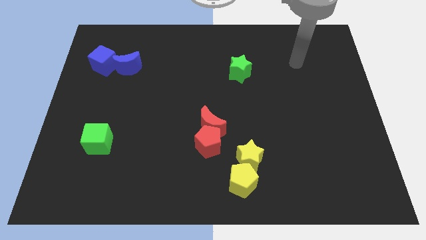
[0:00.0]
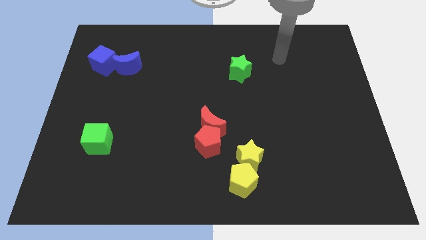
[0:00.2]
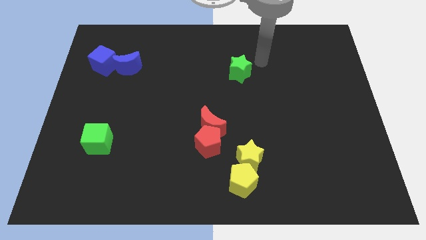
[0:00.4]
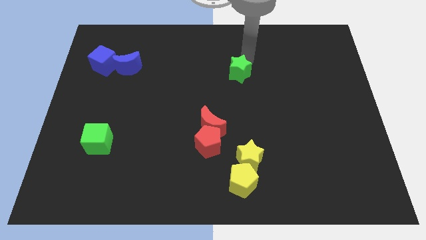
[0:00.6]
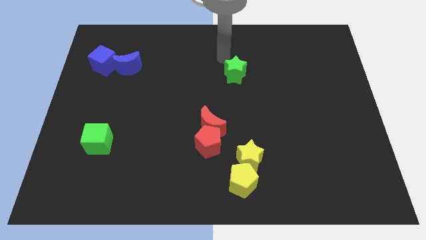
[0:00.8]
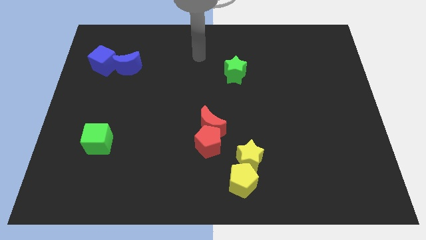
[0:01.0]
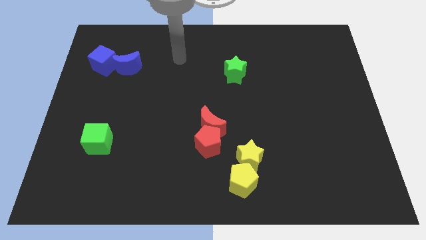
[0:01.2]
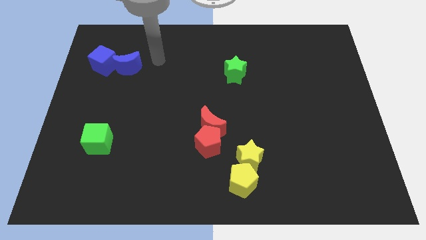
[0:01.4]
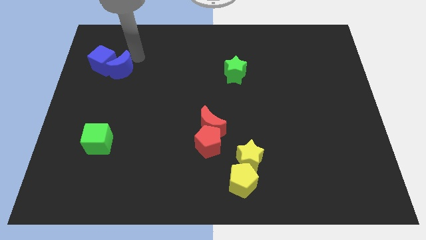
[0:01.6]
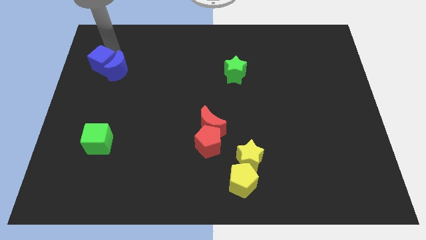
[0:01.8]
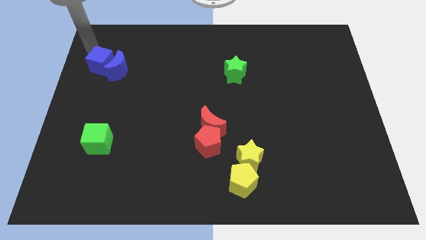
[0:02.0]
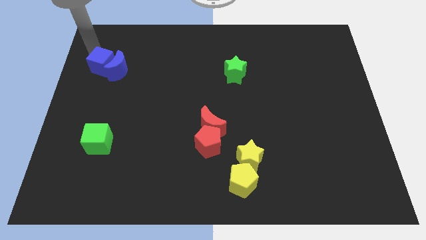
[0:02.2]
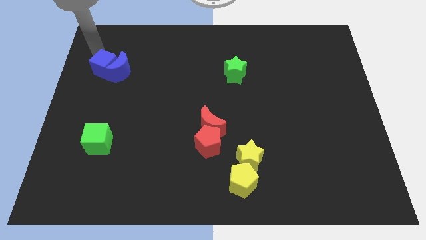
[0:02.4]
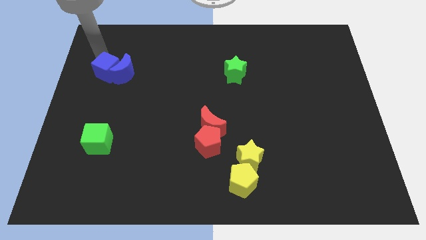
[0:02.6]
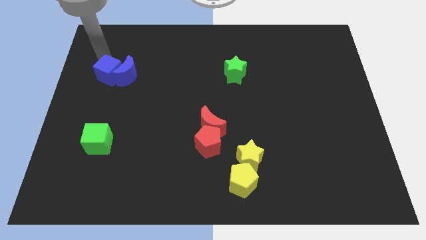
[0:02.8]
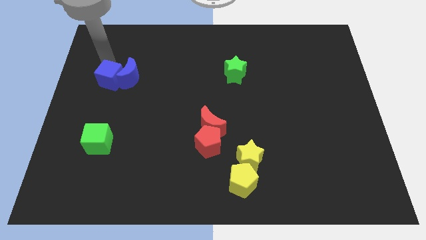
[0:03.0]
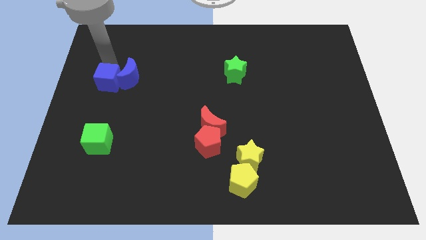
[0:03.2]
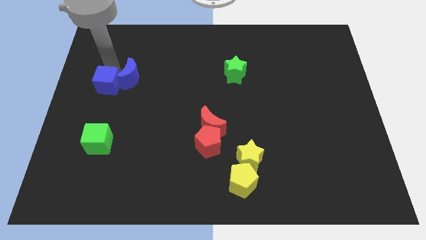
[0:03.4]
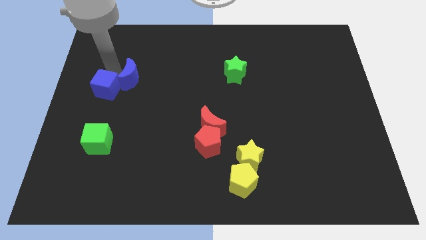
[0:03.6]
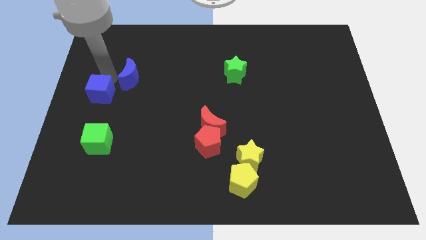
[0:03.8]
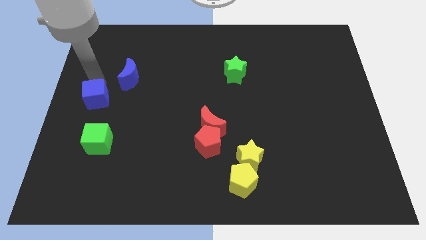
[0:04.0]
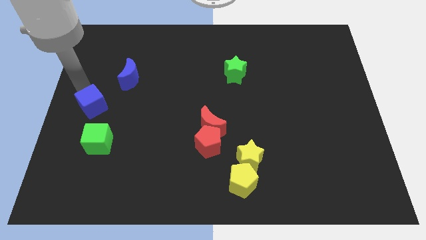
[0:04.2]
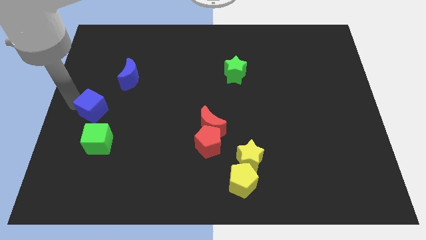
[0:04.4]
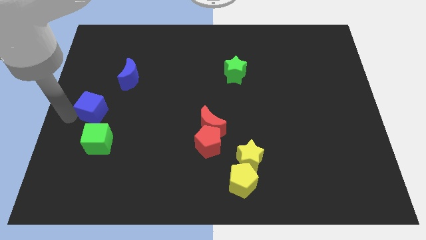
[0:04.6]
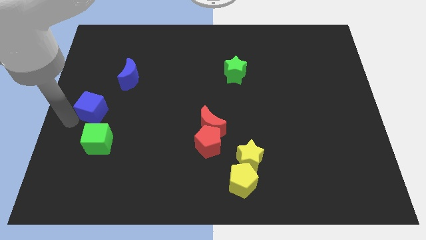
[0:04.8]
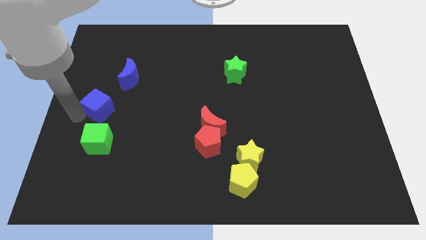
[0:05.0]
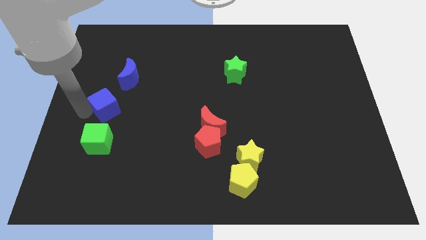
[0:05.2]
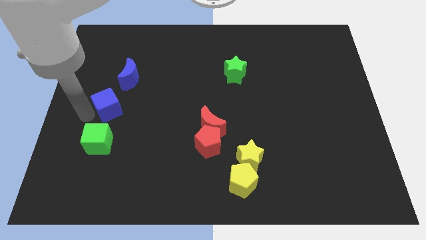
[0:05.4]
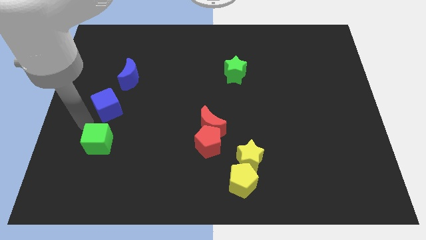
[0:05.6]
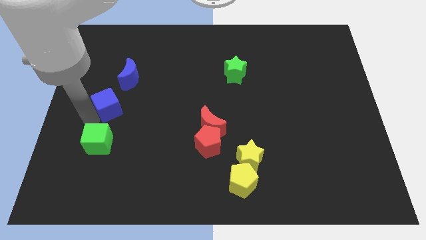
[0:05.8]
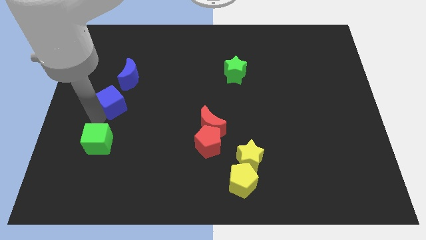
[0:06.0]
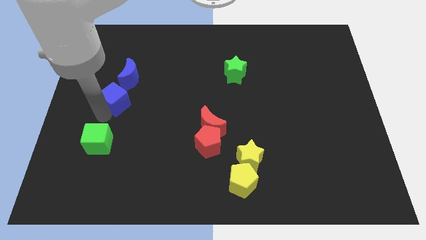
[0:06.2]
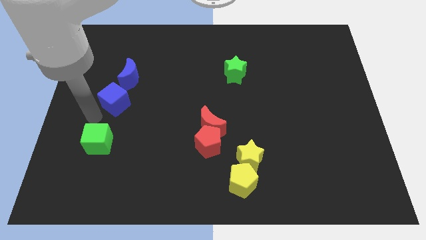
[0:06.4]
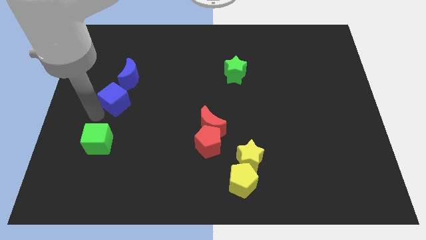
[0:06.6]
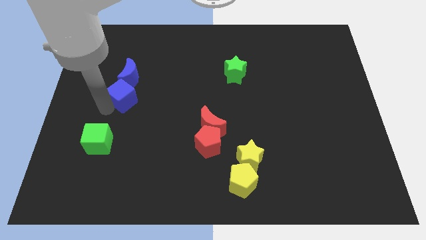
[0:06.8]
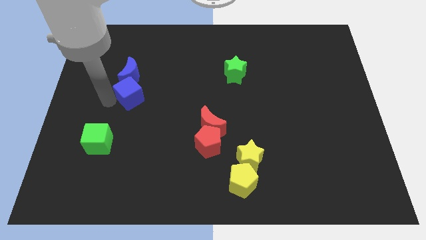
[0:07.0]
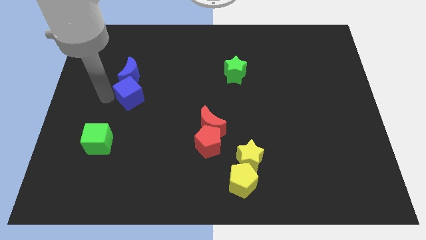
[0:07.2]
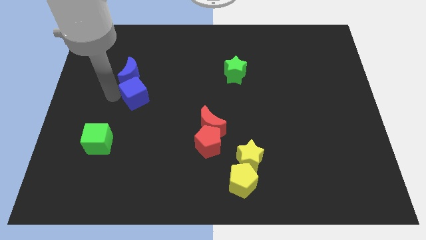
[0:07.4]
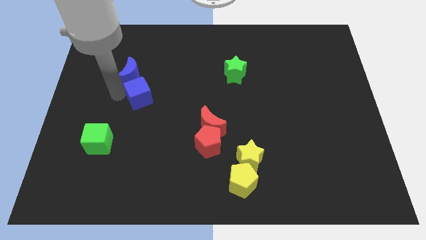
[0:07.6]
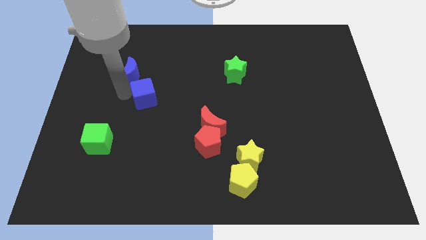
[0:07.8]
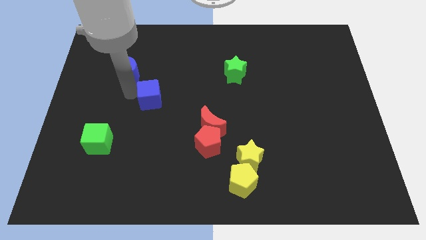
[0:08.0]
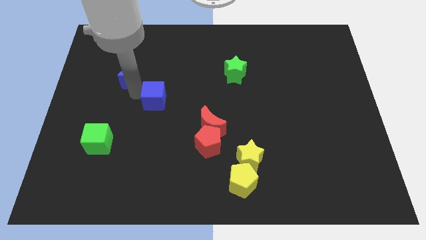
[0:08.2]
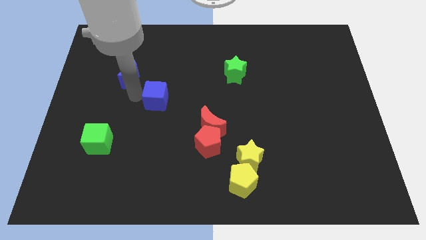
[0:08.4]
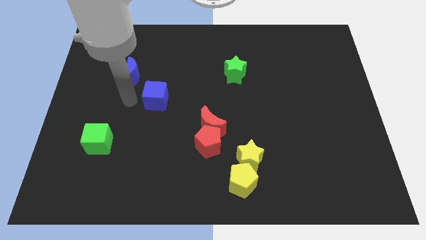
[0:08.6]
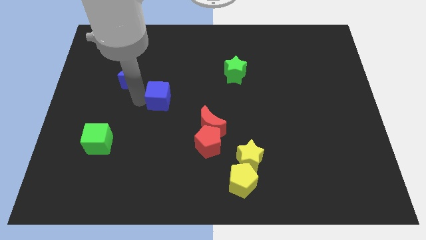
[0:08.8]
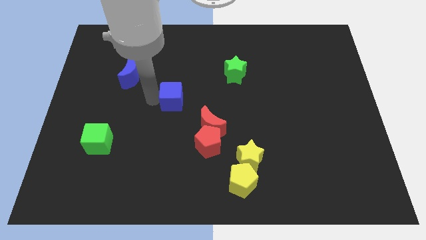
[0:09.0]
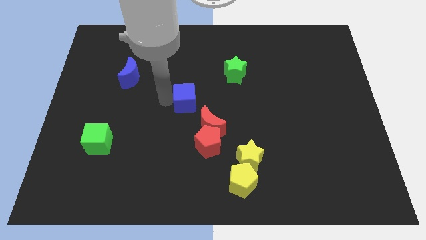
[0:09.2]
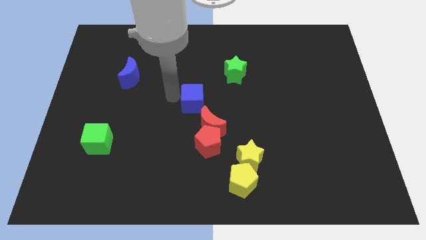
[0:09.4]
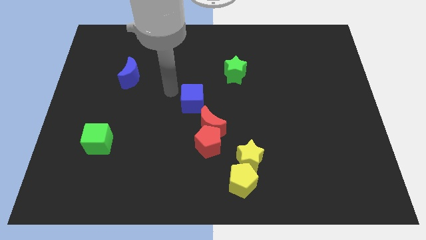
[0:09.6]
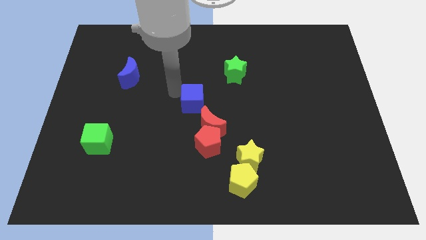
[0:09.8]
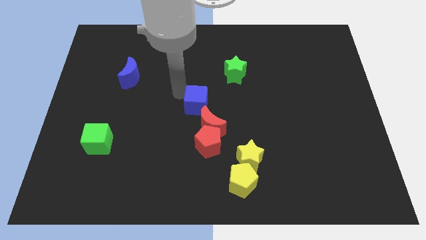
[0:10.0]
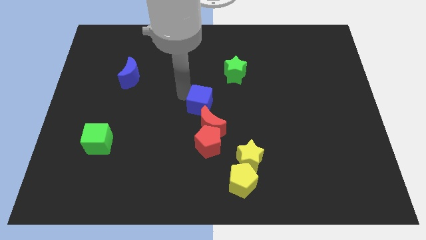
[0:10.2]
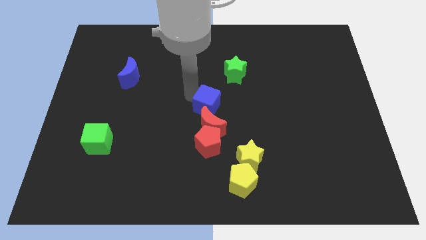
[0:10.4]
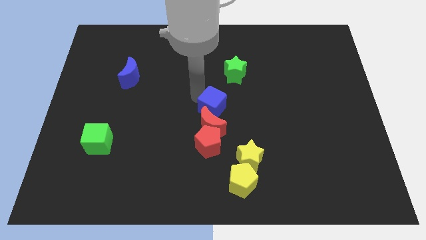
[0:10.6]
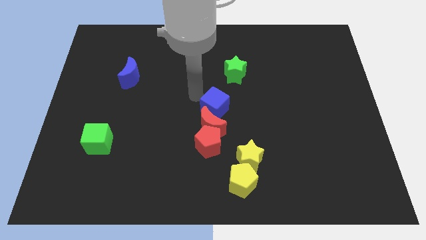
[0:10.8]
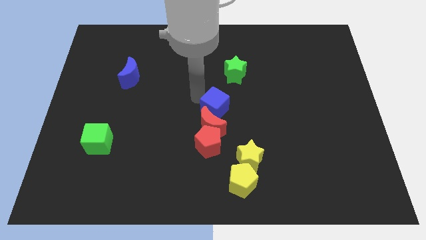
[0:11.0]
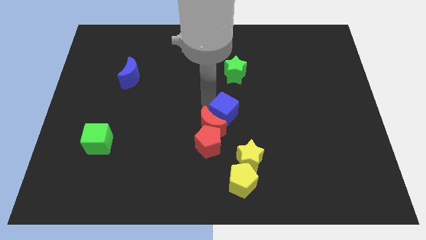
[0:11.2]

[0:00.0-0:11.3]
push the blue cube to the right of the red moon

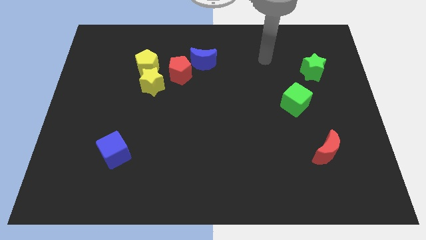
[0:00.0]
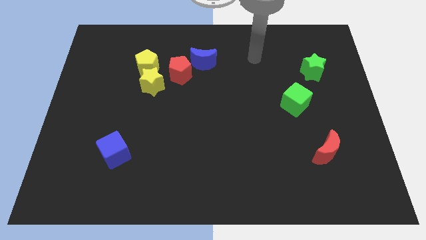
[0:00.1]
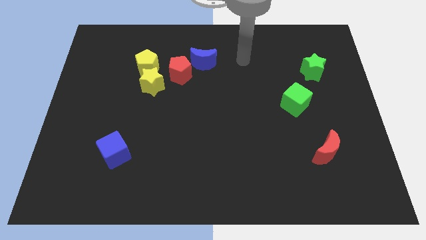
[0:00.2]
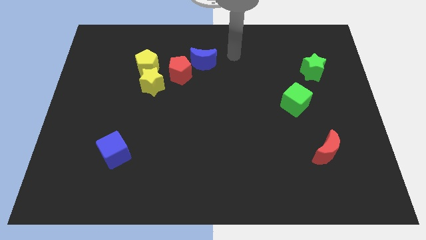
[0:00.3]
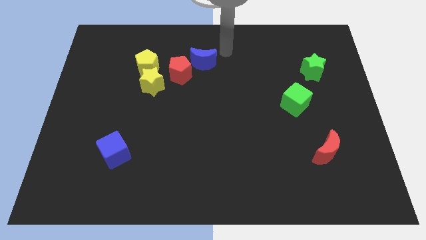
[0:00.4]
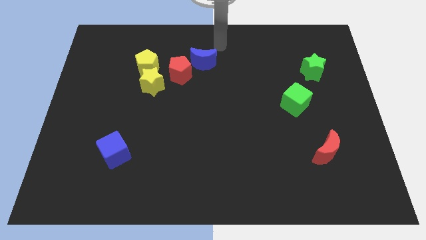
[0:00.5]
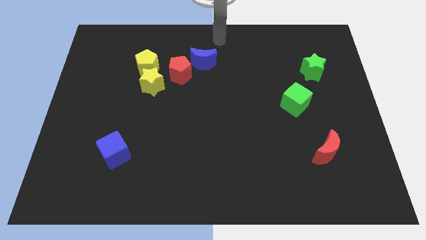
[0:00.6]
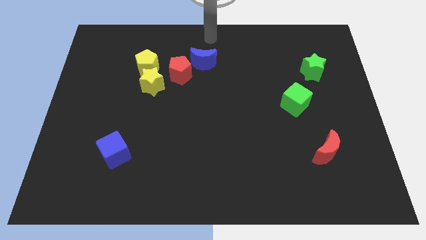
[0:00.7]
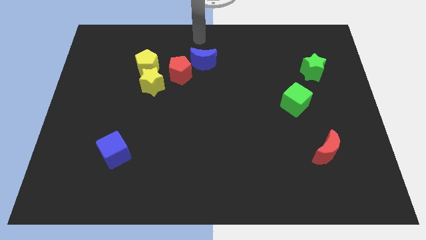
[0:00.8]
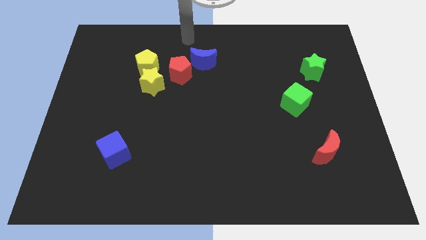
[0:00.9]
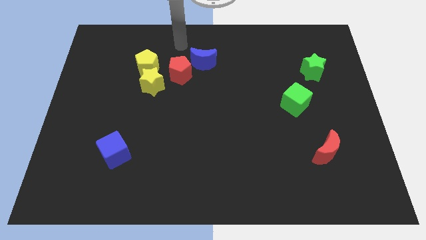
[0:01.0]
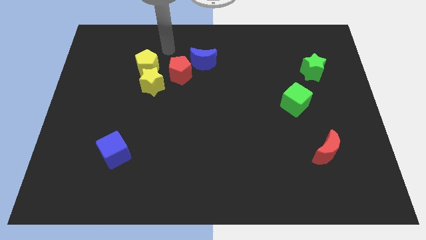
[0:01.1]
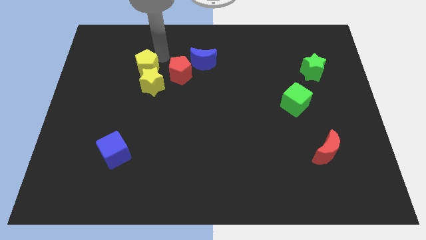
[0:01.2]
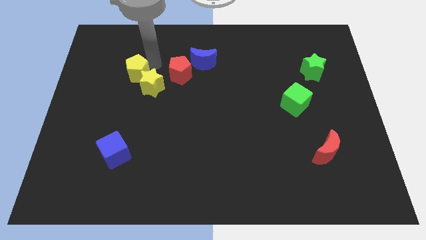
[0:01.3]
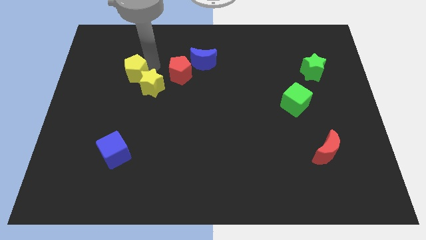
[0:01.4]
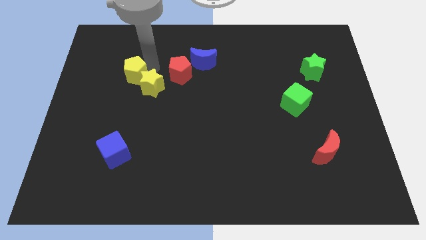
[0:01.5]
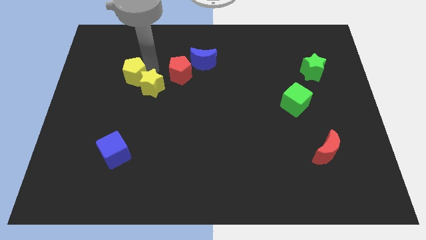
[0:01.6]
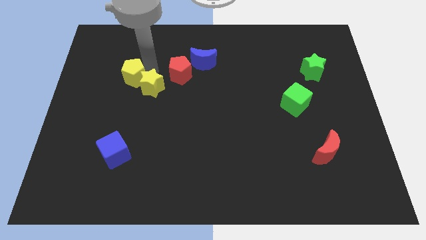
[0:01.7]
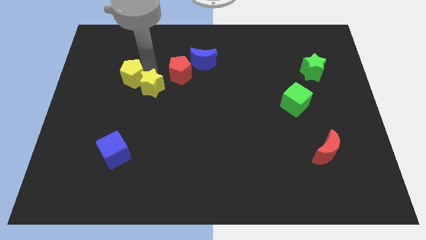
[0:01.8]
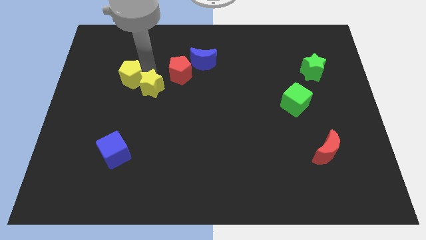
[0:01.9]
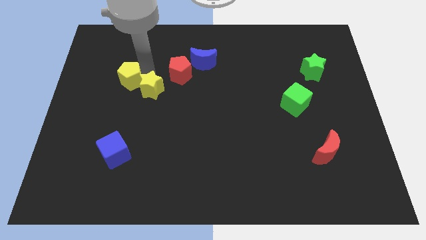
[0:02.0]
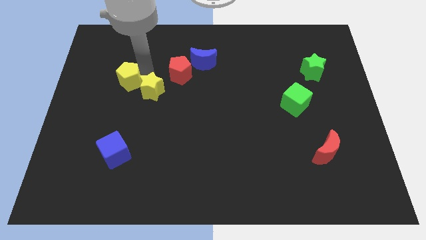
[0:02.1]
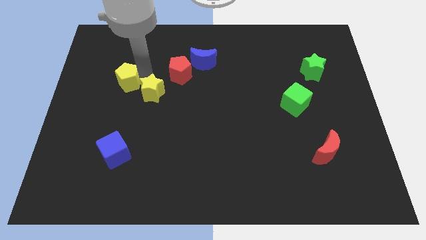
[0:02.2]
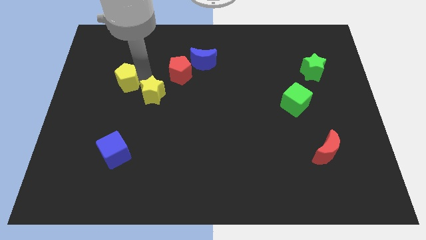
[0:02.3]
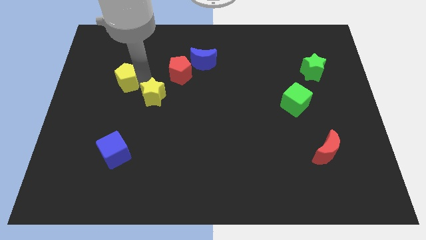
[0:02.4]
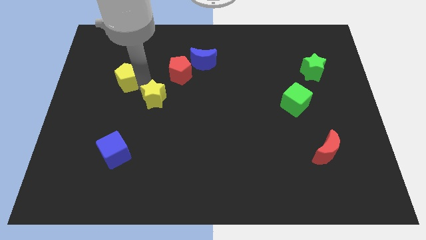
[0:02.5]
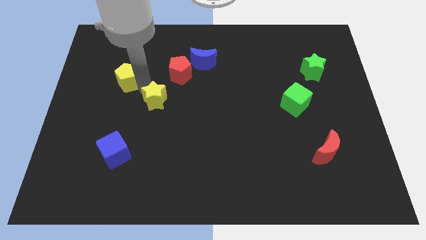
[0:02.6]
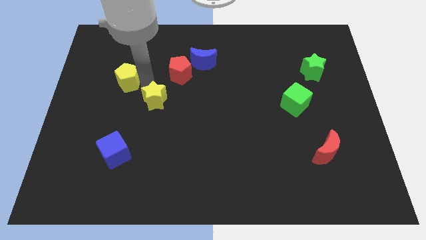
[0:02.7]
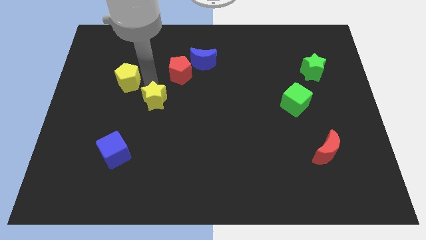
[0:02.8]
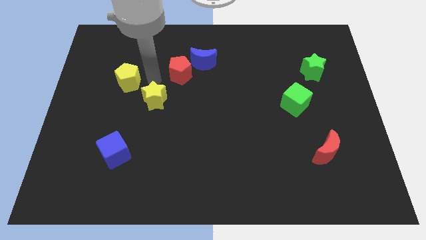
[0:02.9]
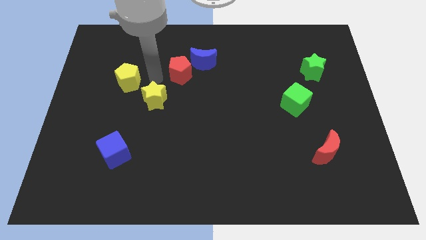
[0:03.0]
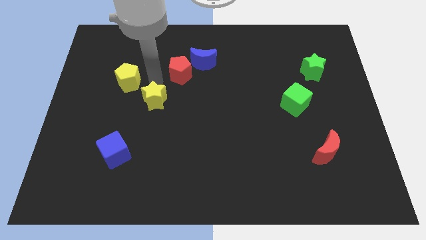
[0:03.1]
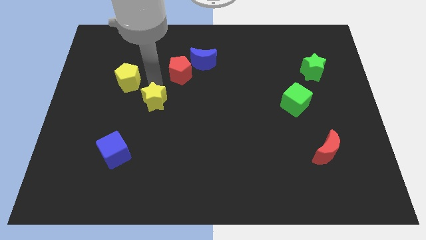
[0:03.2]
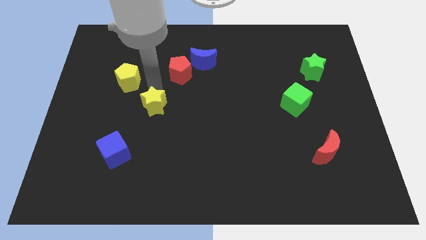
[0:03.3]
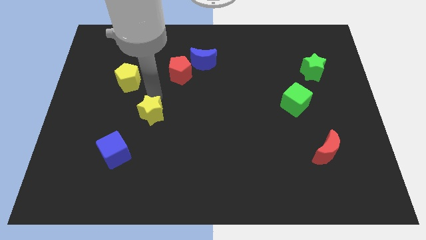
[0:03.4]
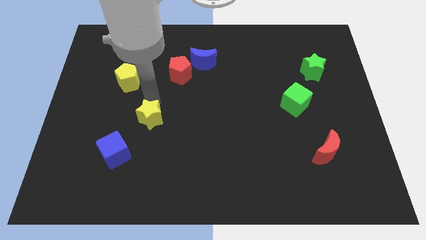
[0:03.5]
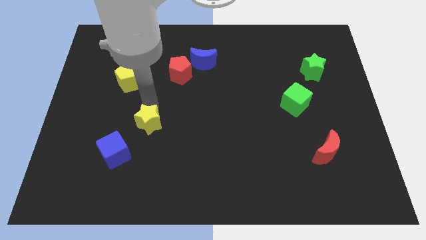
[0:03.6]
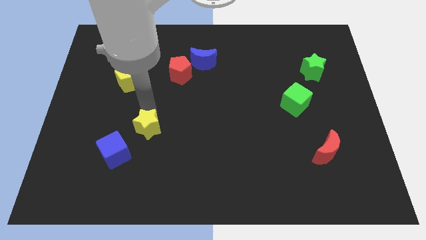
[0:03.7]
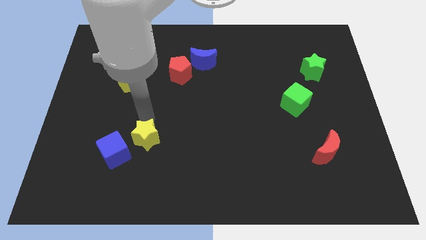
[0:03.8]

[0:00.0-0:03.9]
push the yellow star right of the blue cube
